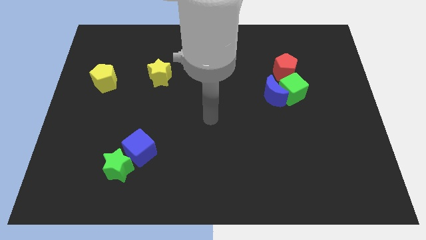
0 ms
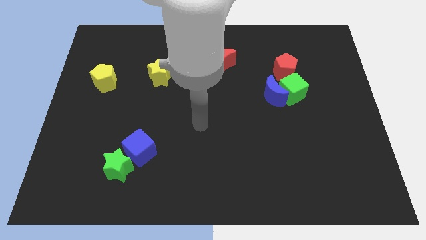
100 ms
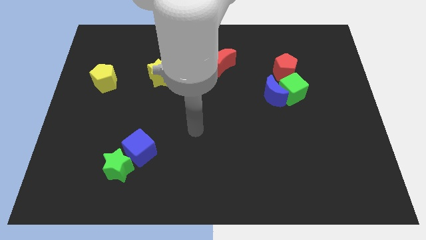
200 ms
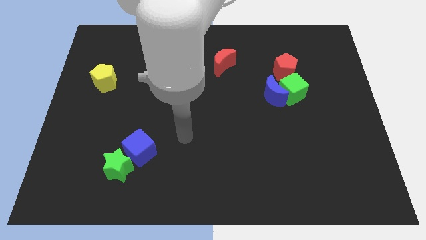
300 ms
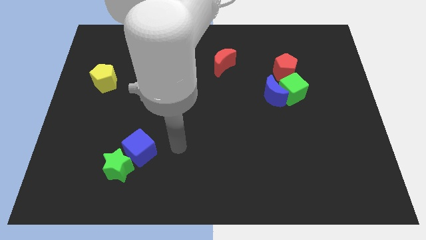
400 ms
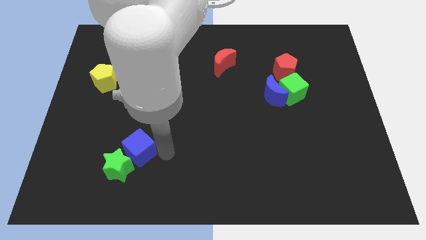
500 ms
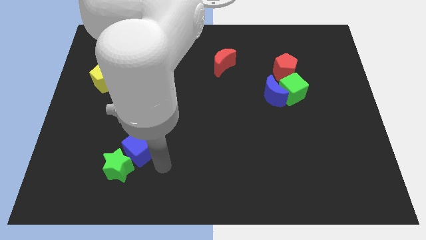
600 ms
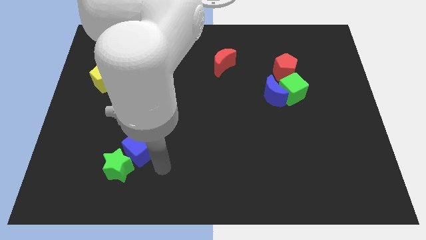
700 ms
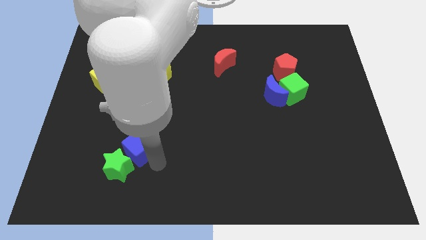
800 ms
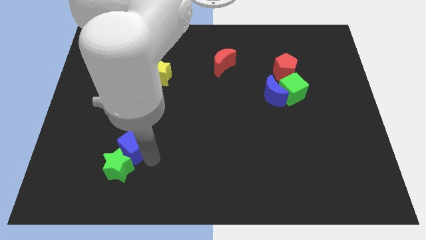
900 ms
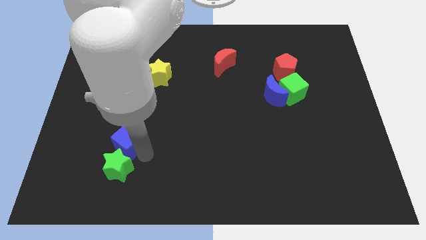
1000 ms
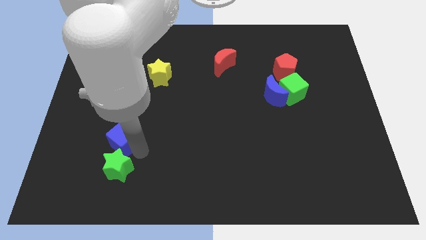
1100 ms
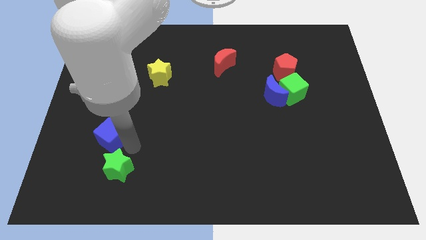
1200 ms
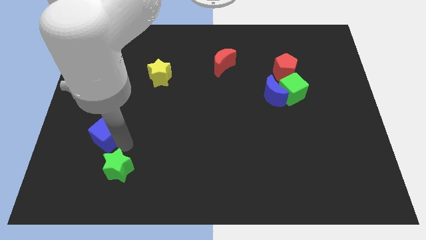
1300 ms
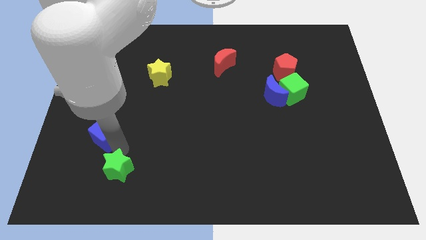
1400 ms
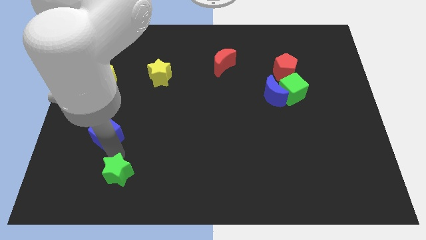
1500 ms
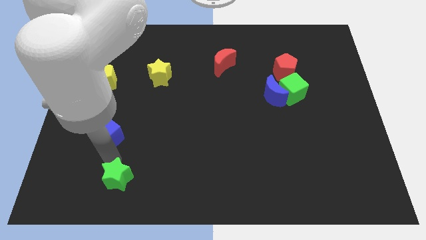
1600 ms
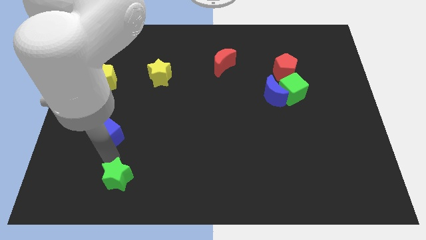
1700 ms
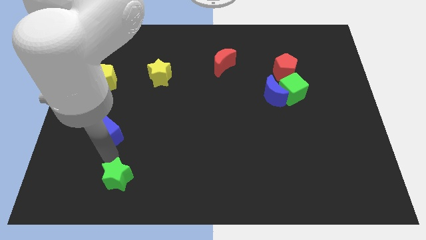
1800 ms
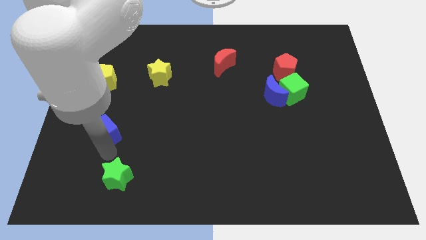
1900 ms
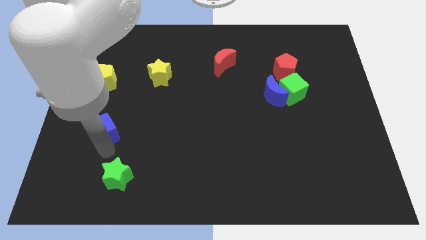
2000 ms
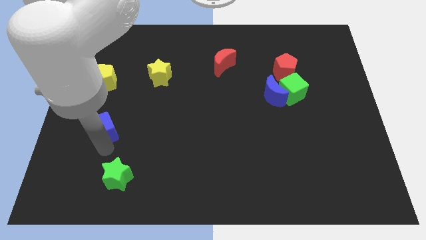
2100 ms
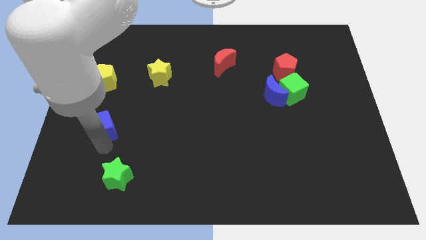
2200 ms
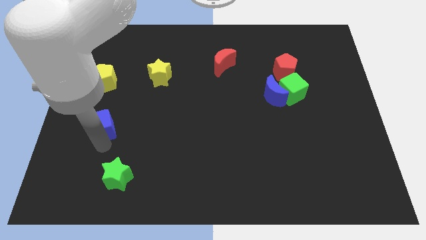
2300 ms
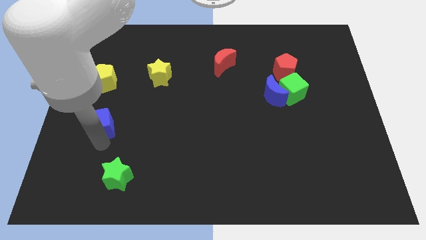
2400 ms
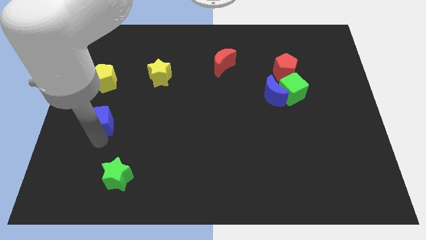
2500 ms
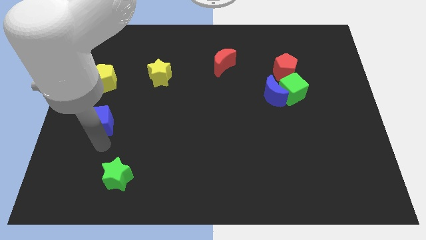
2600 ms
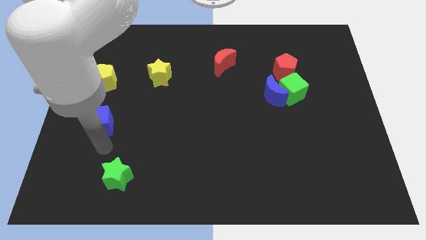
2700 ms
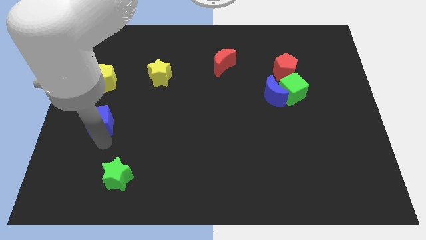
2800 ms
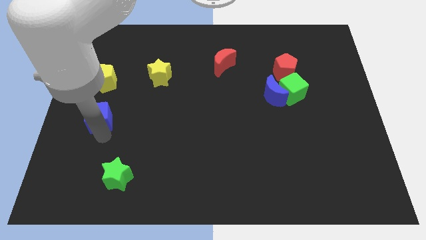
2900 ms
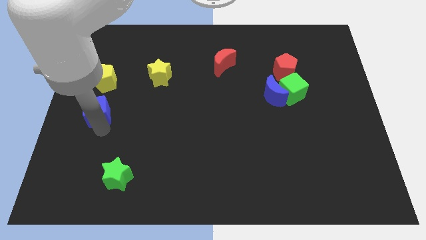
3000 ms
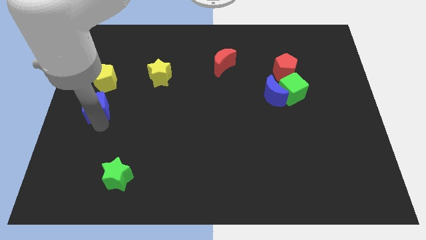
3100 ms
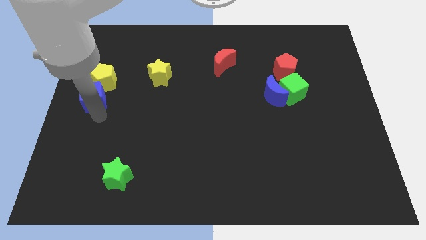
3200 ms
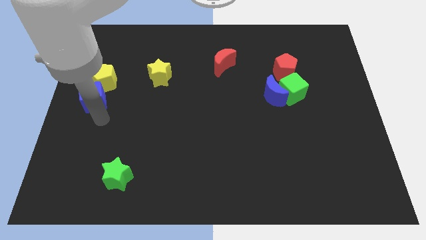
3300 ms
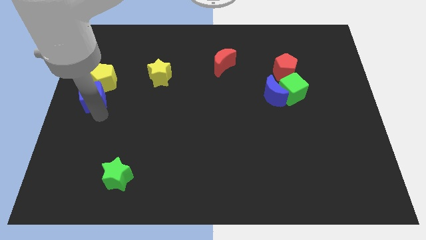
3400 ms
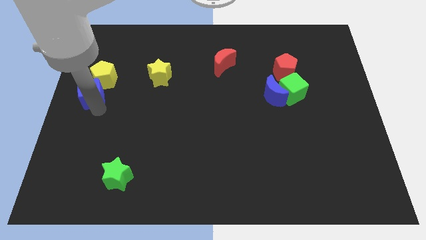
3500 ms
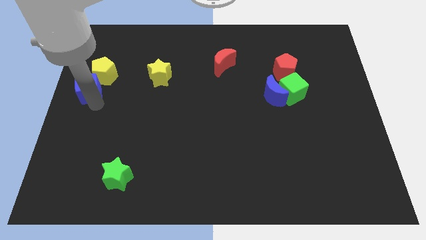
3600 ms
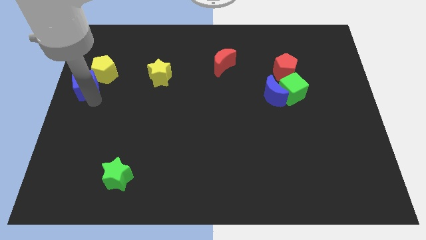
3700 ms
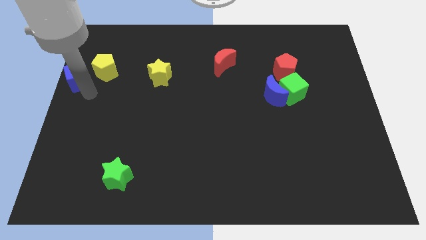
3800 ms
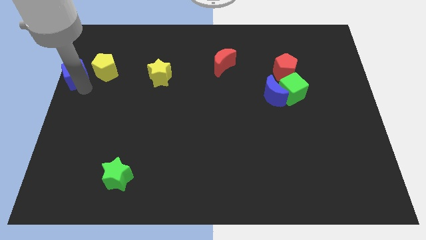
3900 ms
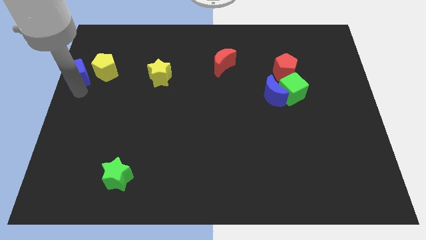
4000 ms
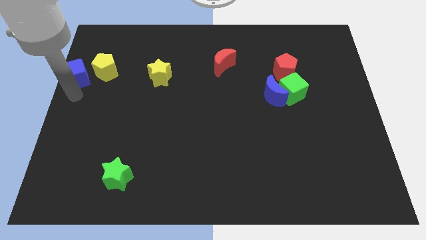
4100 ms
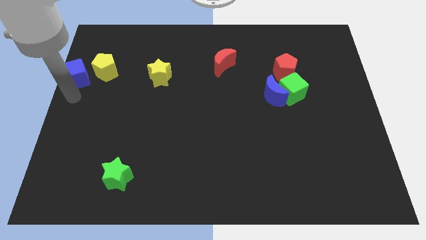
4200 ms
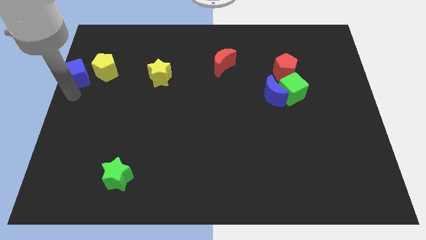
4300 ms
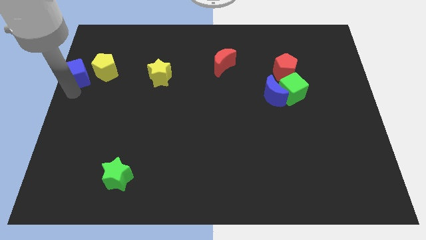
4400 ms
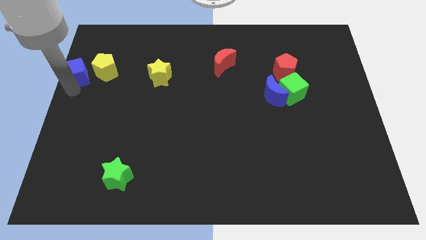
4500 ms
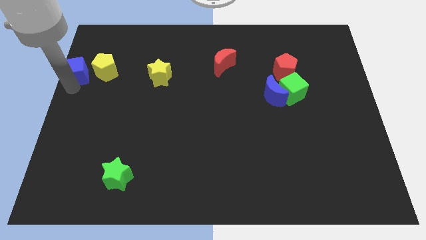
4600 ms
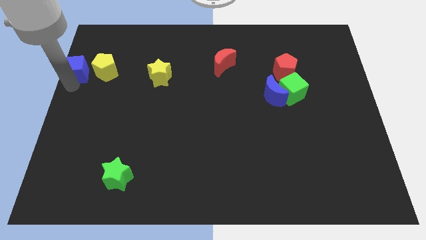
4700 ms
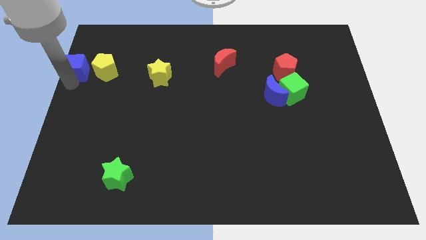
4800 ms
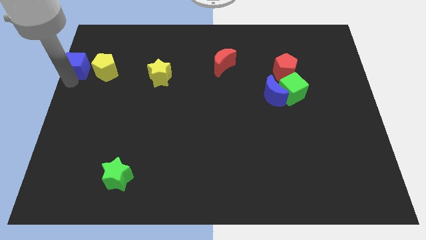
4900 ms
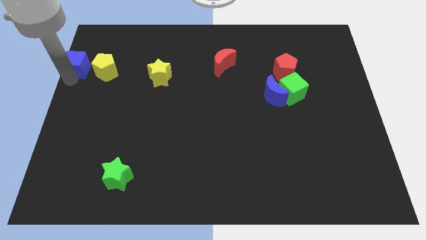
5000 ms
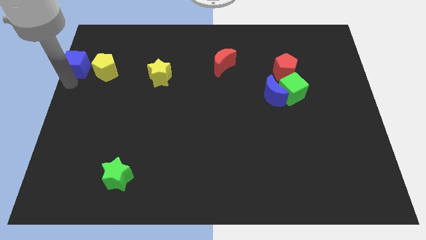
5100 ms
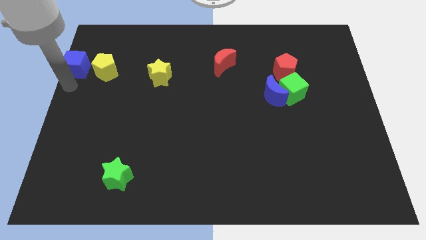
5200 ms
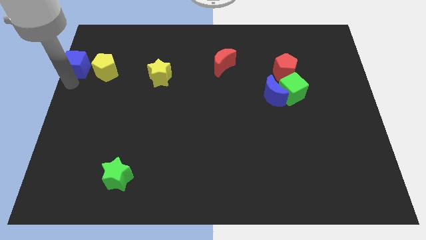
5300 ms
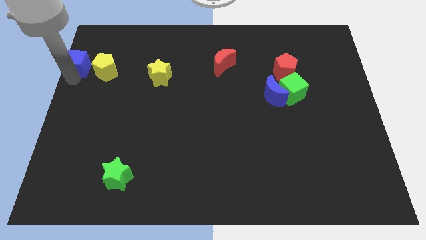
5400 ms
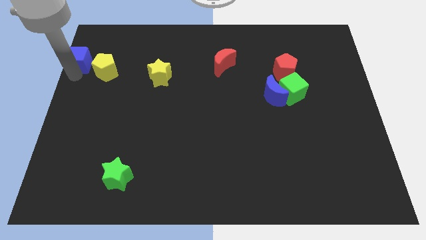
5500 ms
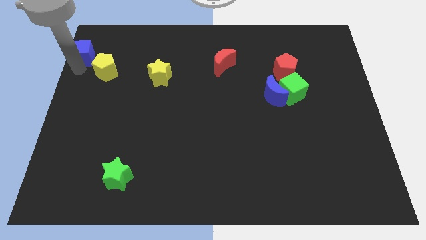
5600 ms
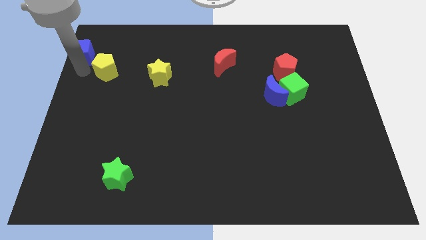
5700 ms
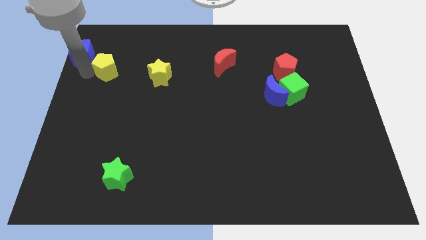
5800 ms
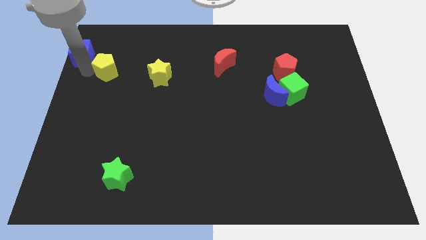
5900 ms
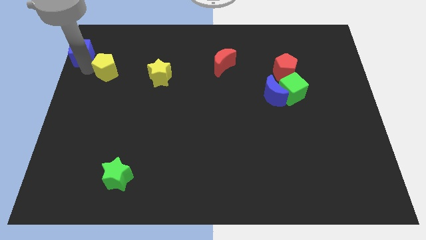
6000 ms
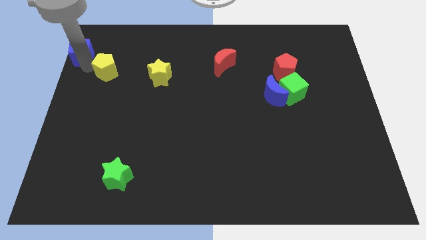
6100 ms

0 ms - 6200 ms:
push the blue cube to the top left corner
